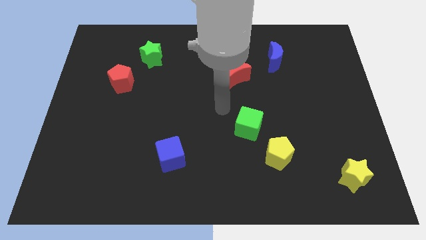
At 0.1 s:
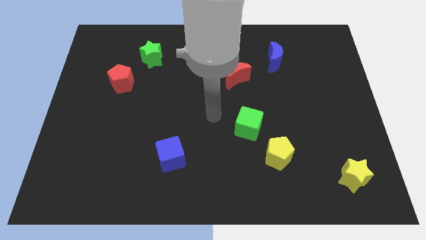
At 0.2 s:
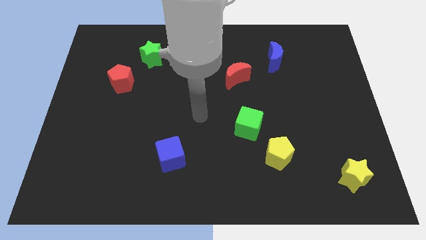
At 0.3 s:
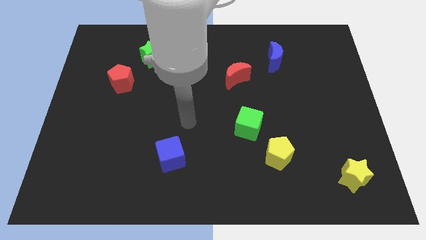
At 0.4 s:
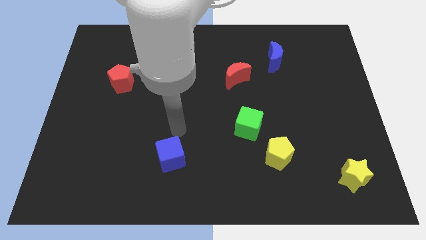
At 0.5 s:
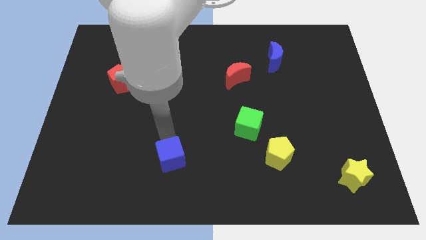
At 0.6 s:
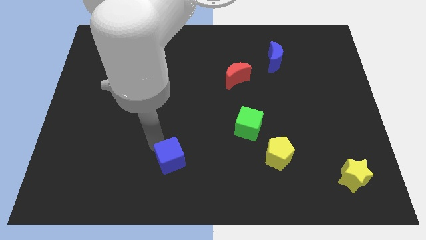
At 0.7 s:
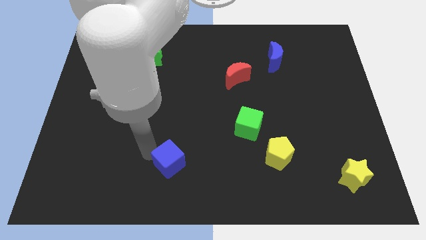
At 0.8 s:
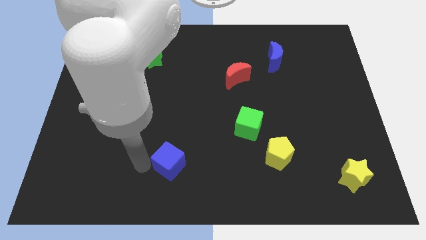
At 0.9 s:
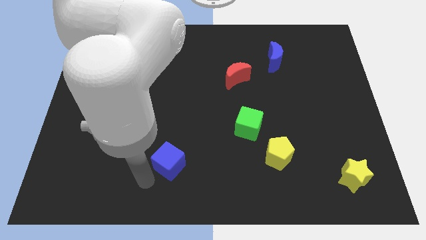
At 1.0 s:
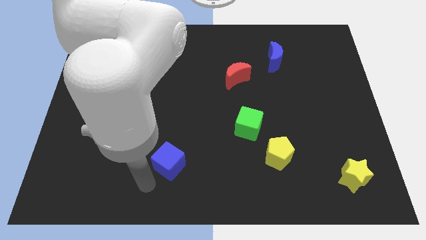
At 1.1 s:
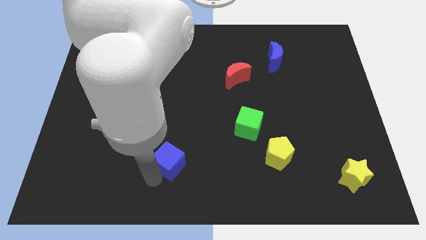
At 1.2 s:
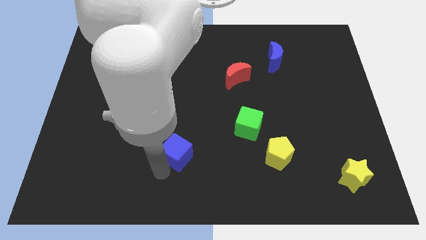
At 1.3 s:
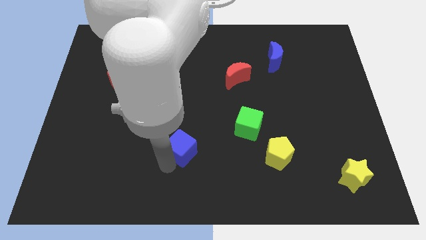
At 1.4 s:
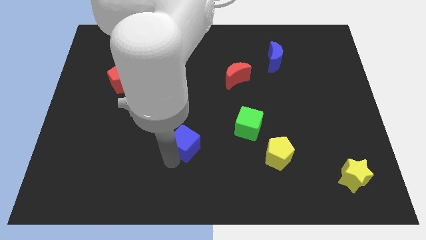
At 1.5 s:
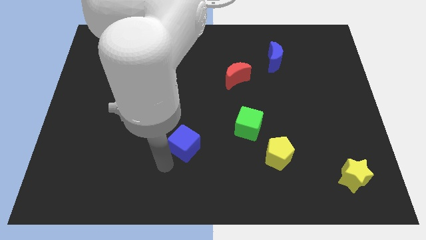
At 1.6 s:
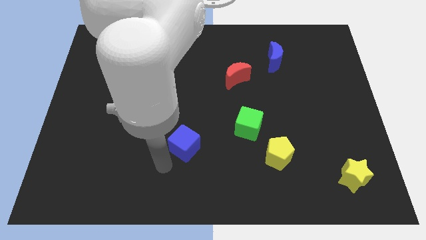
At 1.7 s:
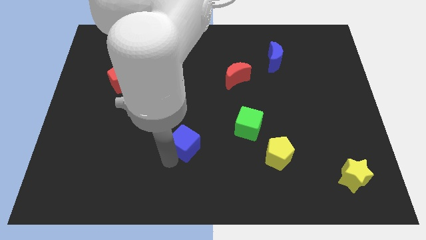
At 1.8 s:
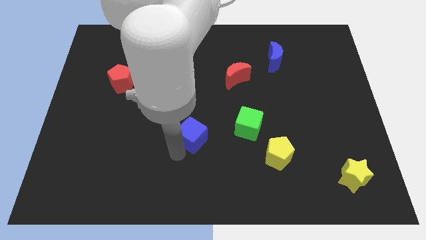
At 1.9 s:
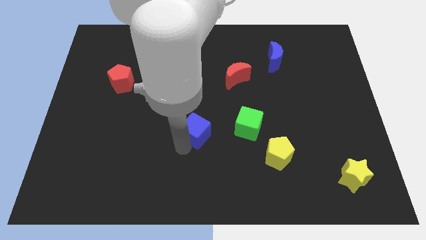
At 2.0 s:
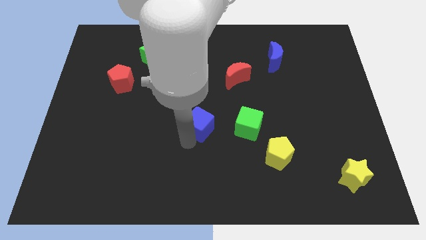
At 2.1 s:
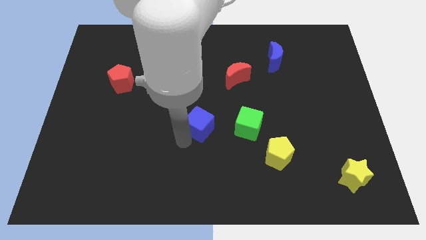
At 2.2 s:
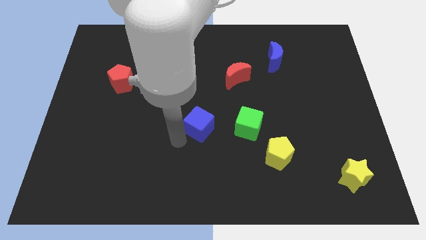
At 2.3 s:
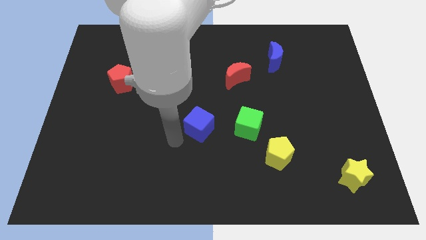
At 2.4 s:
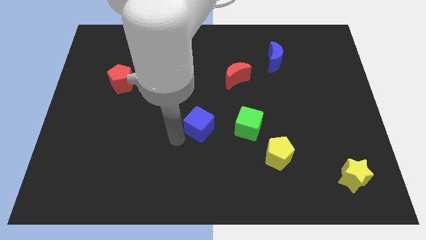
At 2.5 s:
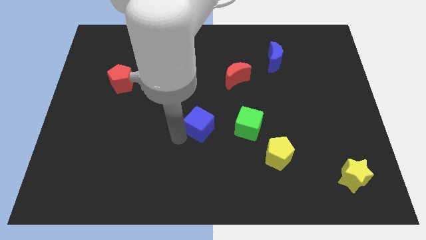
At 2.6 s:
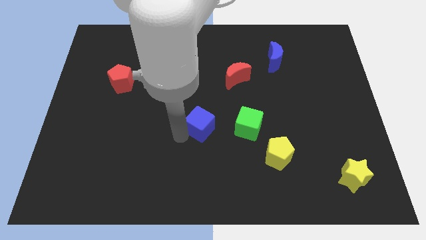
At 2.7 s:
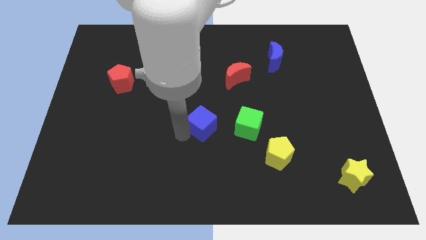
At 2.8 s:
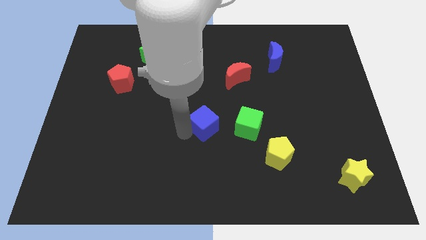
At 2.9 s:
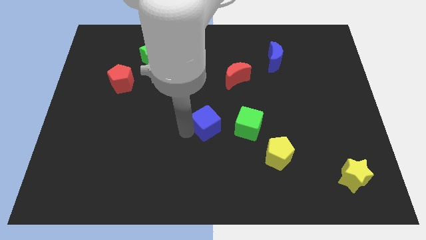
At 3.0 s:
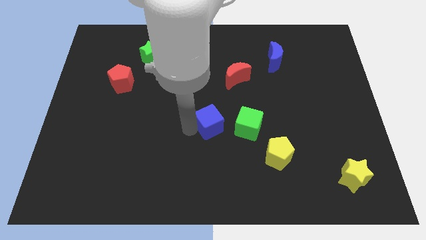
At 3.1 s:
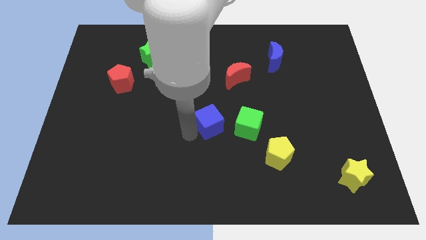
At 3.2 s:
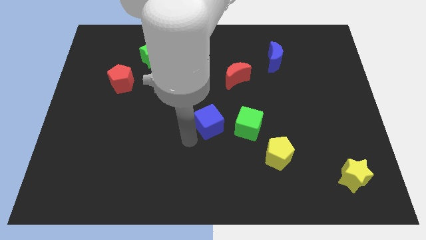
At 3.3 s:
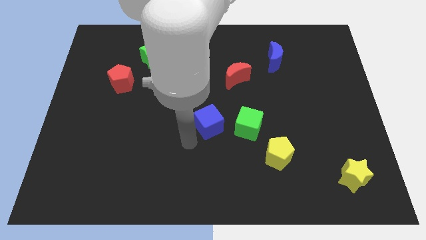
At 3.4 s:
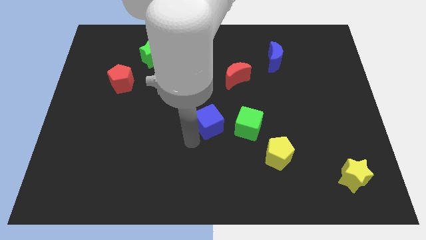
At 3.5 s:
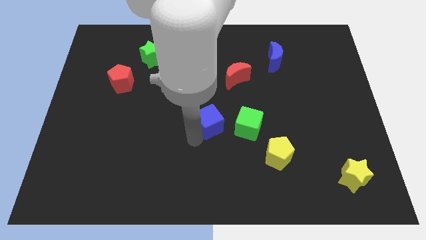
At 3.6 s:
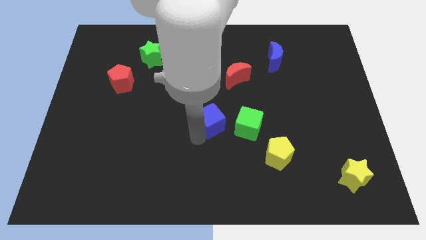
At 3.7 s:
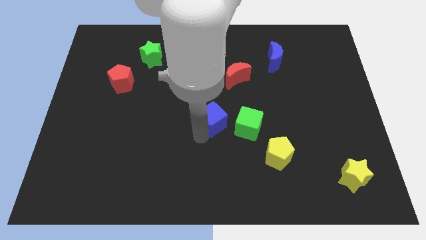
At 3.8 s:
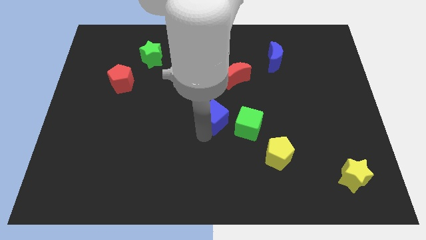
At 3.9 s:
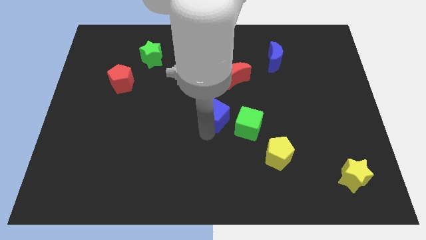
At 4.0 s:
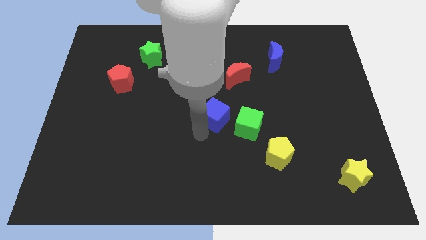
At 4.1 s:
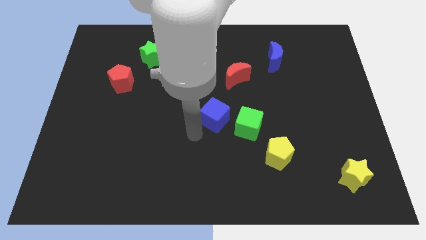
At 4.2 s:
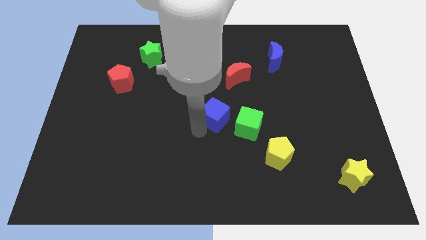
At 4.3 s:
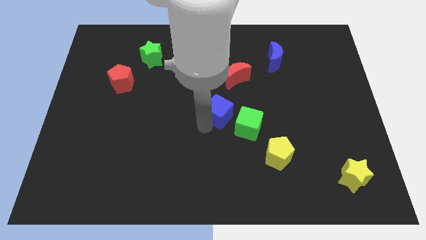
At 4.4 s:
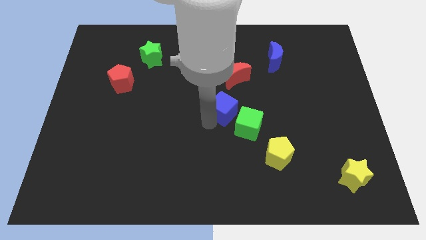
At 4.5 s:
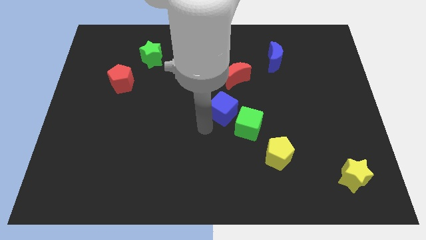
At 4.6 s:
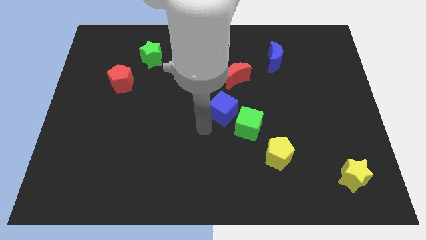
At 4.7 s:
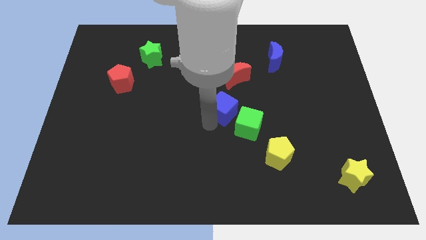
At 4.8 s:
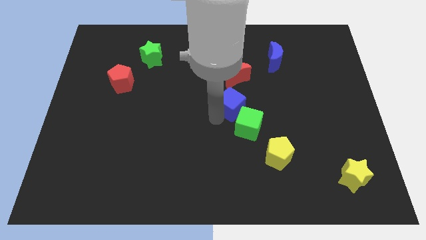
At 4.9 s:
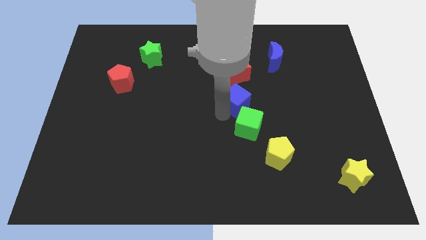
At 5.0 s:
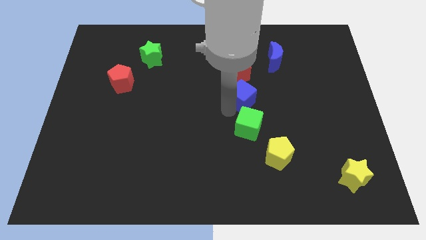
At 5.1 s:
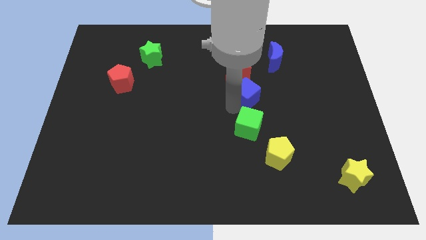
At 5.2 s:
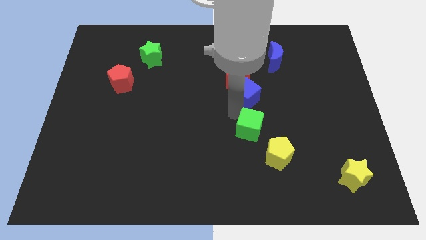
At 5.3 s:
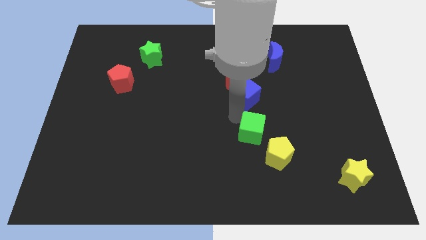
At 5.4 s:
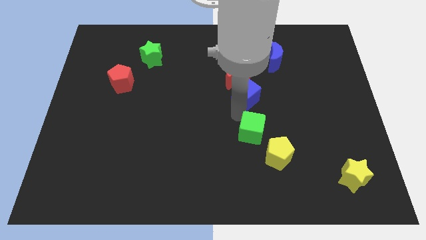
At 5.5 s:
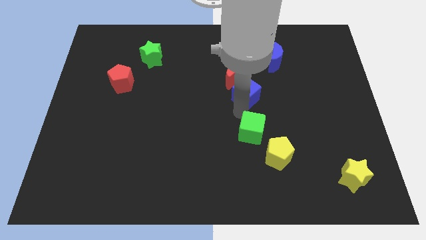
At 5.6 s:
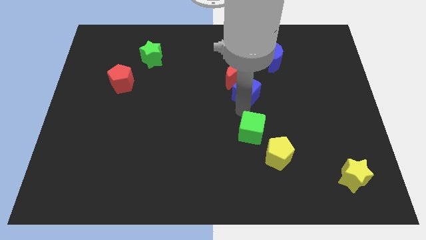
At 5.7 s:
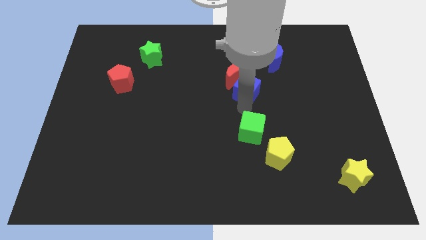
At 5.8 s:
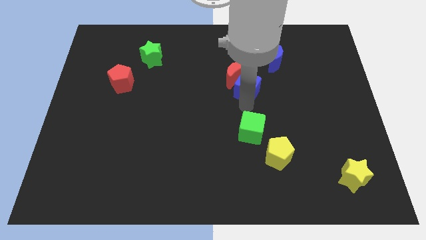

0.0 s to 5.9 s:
slide the blue cube to the bottom left of the blue moon

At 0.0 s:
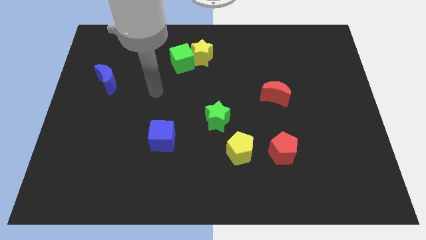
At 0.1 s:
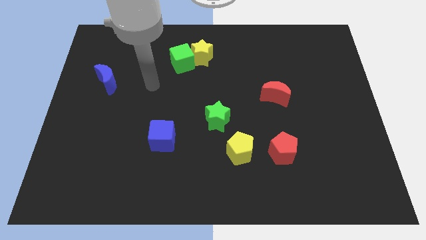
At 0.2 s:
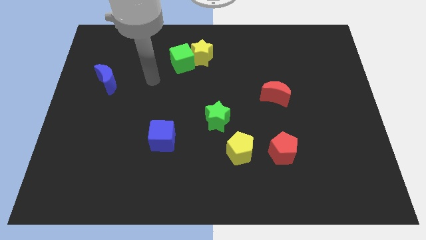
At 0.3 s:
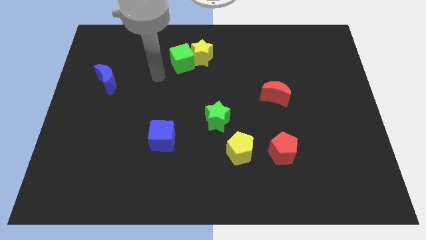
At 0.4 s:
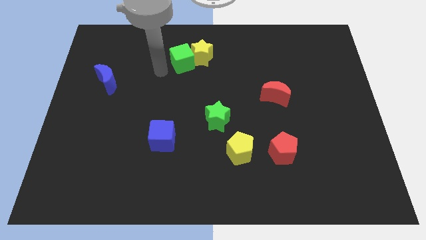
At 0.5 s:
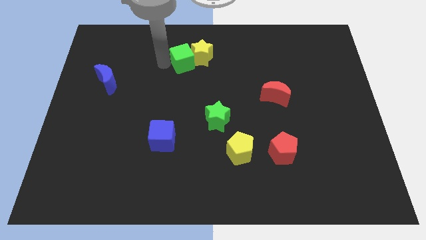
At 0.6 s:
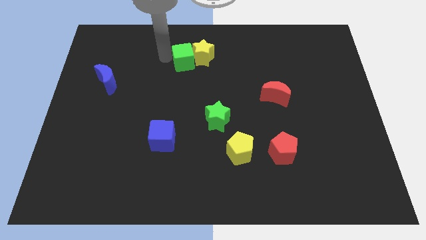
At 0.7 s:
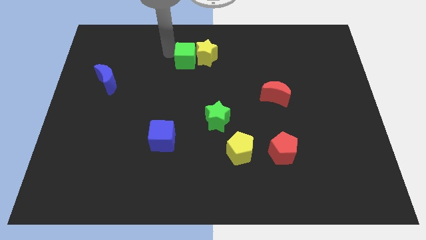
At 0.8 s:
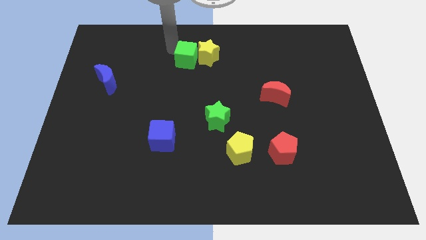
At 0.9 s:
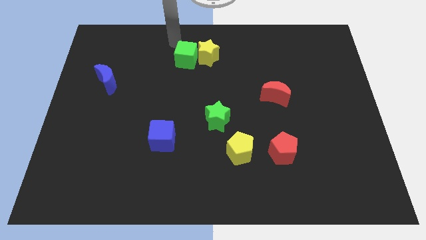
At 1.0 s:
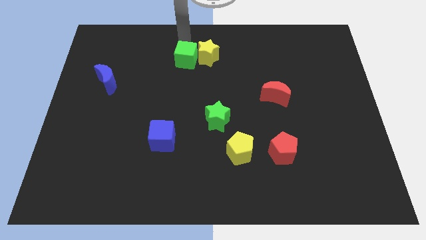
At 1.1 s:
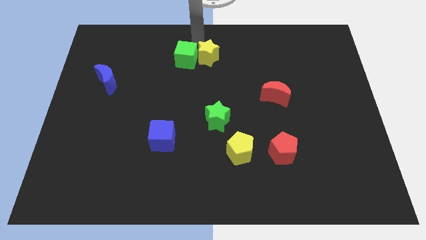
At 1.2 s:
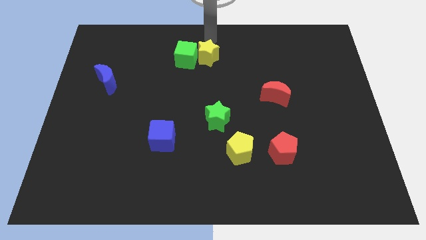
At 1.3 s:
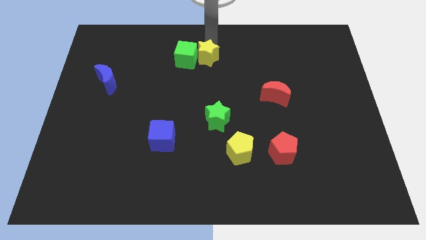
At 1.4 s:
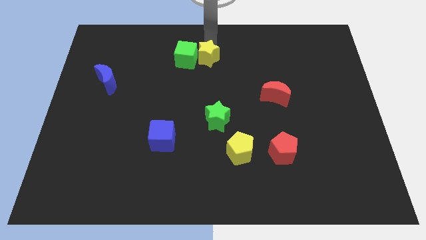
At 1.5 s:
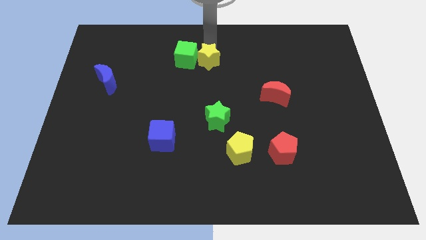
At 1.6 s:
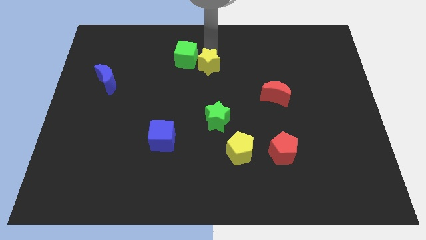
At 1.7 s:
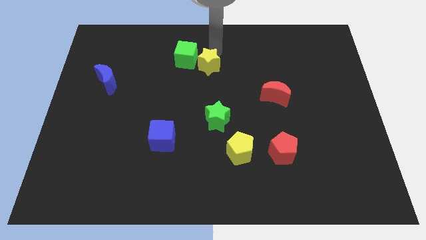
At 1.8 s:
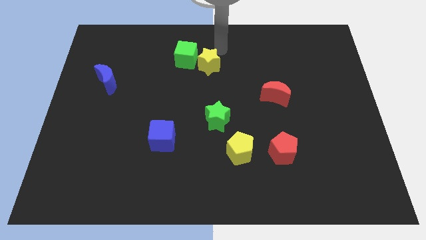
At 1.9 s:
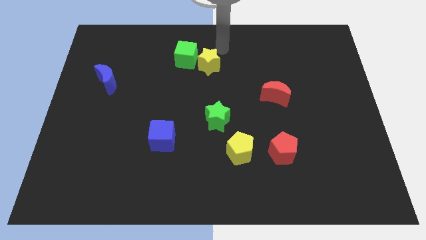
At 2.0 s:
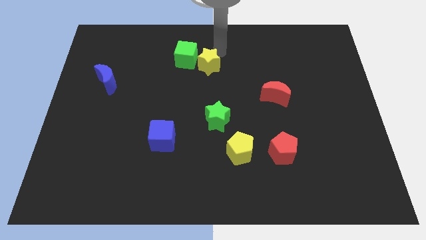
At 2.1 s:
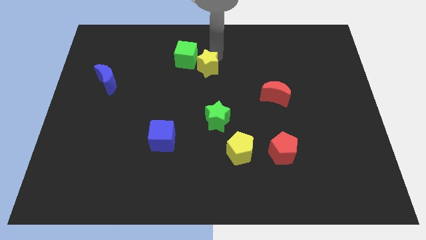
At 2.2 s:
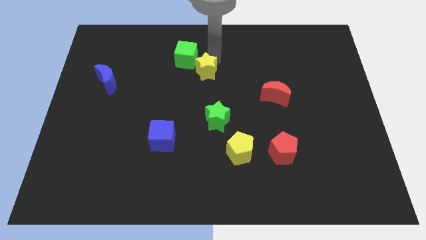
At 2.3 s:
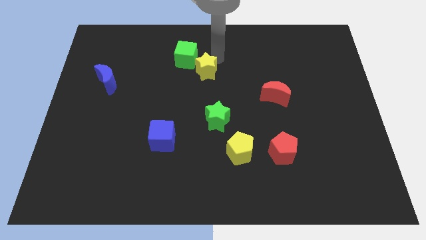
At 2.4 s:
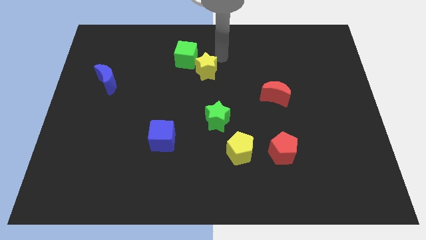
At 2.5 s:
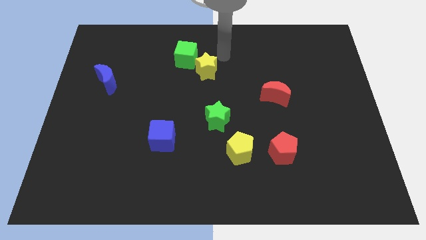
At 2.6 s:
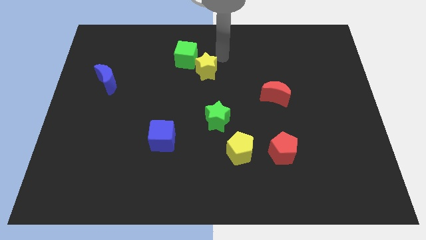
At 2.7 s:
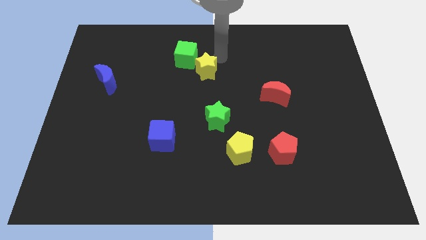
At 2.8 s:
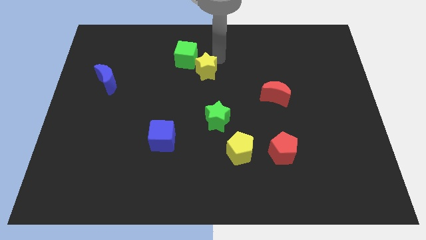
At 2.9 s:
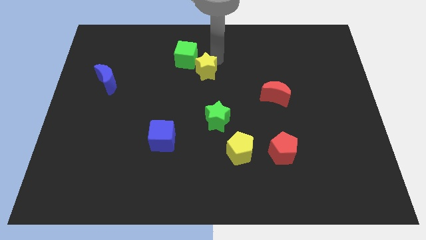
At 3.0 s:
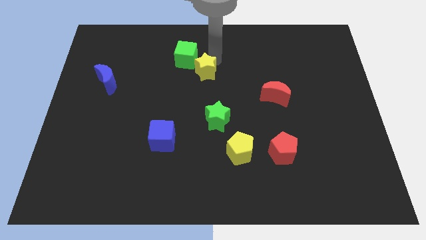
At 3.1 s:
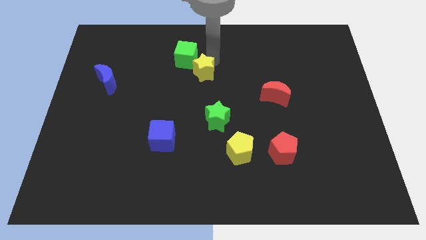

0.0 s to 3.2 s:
slide the yellow star below the green cube
